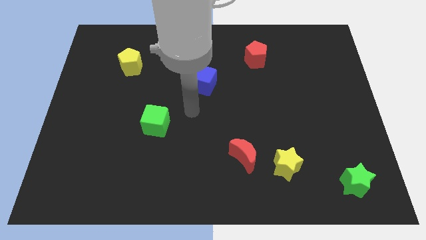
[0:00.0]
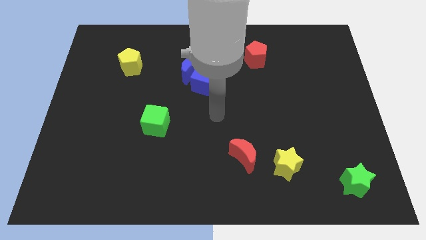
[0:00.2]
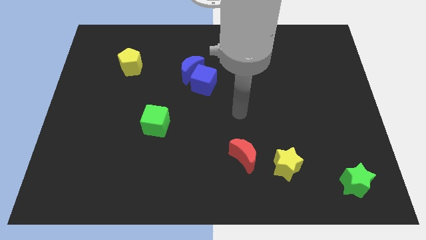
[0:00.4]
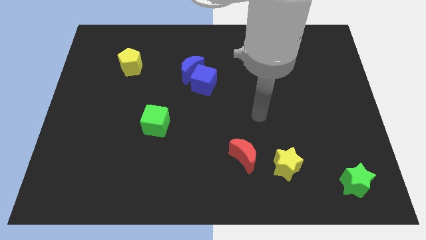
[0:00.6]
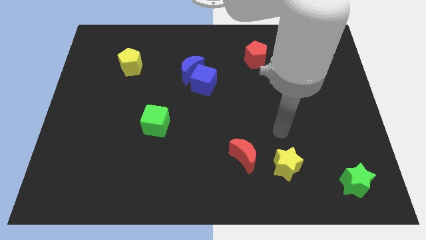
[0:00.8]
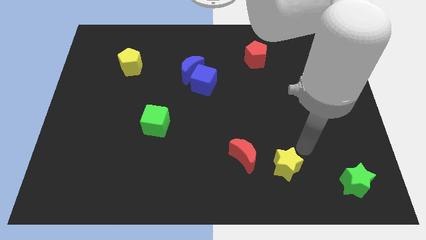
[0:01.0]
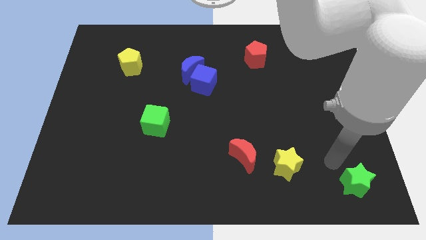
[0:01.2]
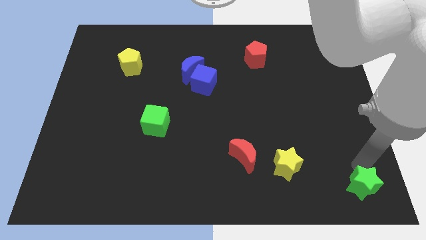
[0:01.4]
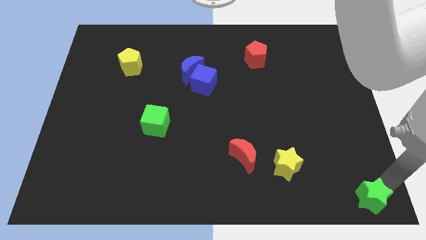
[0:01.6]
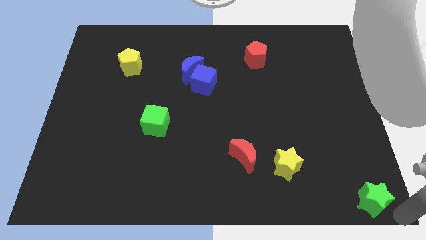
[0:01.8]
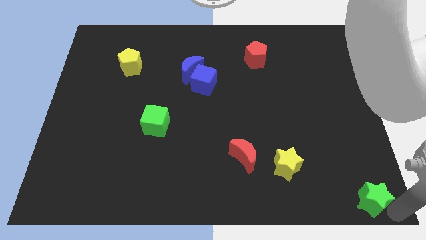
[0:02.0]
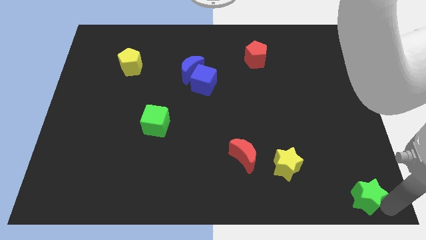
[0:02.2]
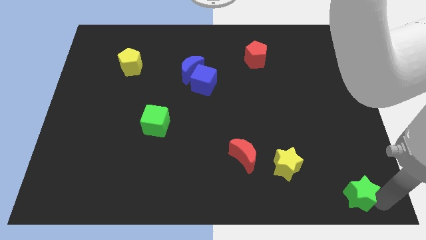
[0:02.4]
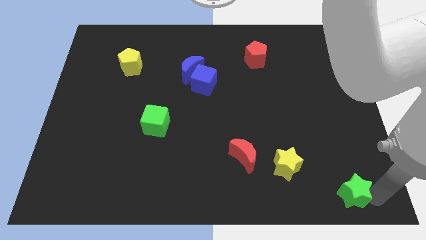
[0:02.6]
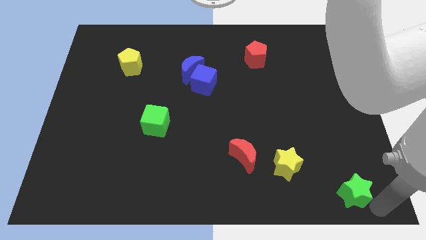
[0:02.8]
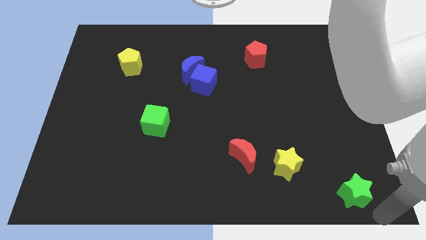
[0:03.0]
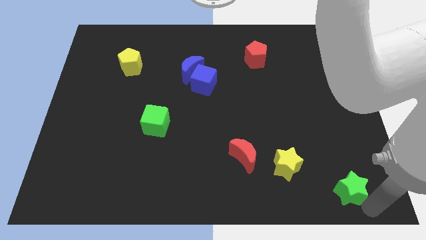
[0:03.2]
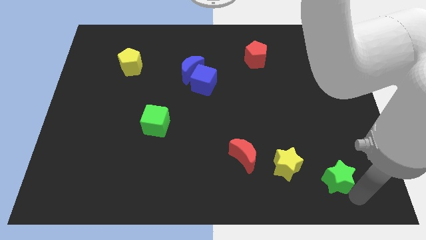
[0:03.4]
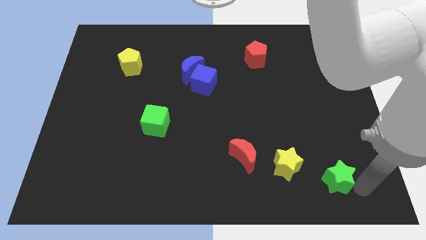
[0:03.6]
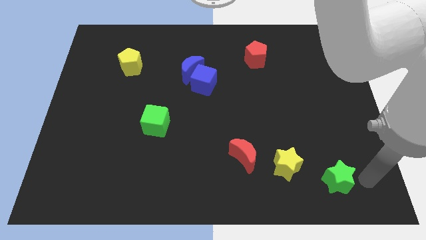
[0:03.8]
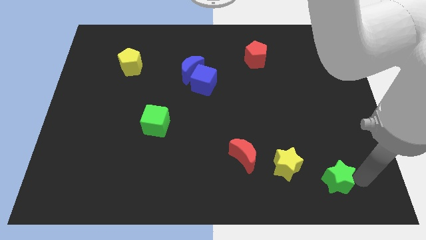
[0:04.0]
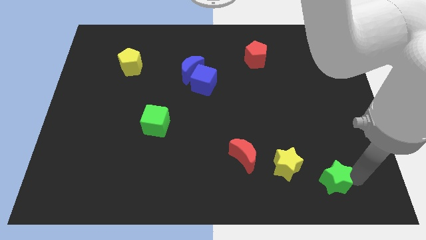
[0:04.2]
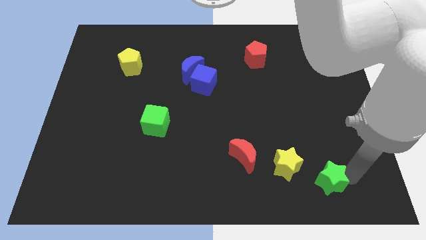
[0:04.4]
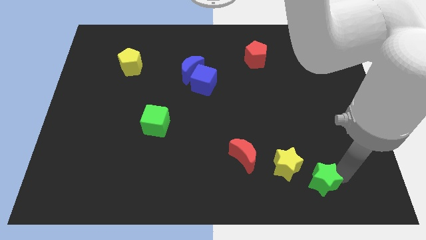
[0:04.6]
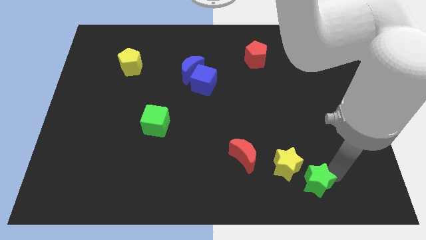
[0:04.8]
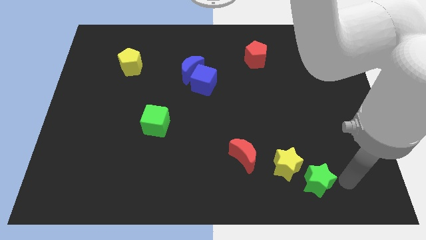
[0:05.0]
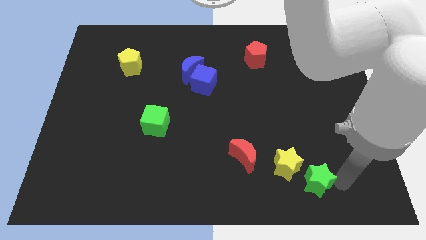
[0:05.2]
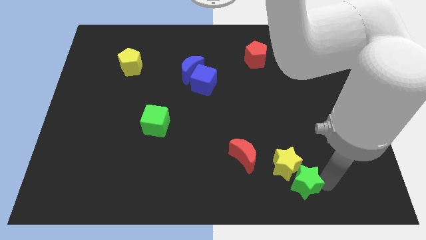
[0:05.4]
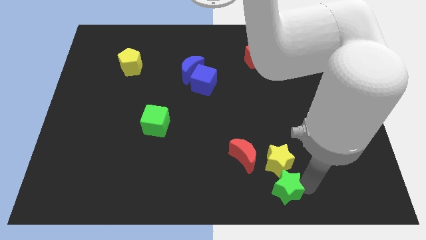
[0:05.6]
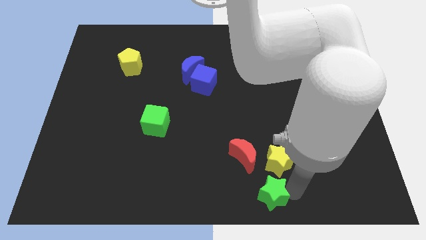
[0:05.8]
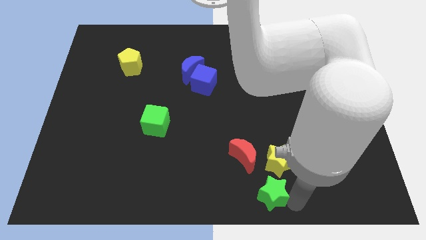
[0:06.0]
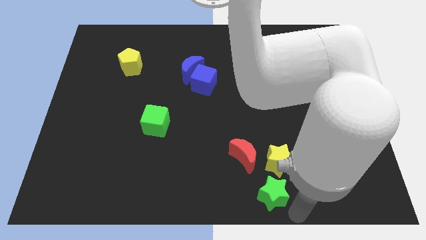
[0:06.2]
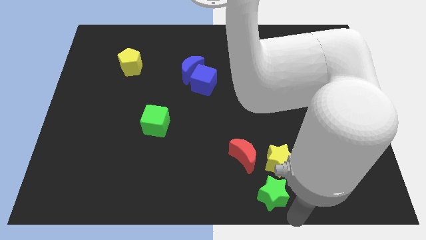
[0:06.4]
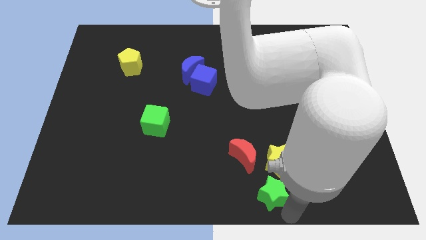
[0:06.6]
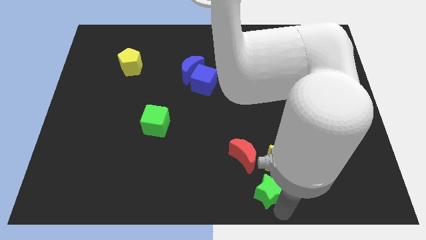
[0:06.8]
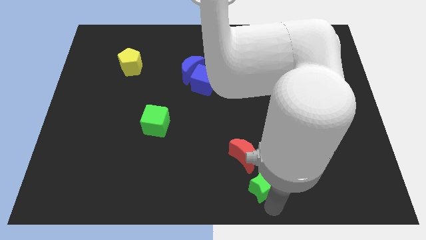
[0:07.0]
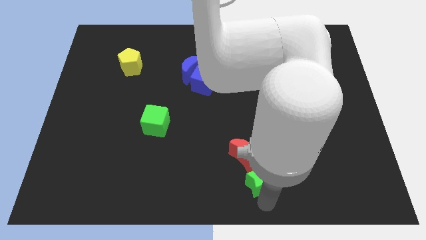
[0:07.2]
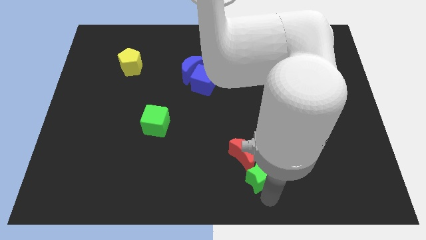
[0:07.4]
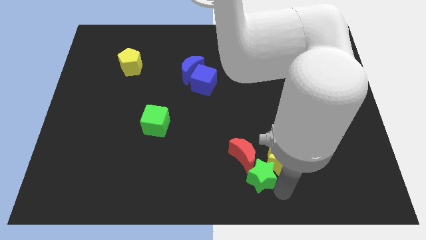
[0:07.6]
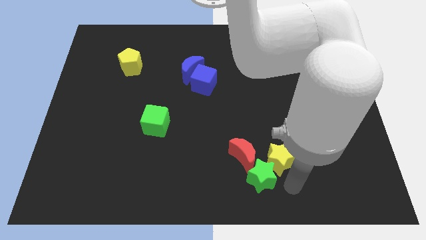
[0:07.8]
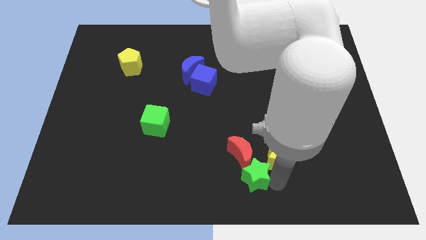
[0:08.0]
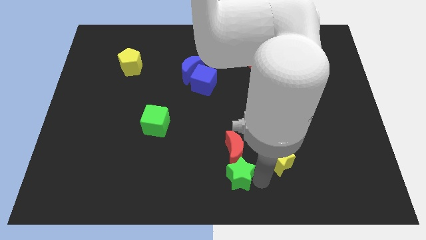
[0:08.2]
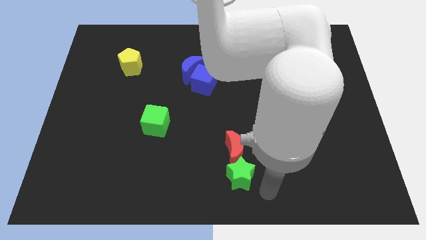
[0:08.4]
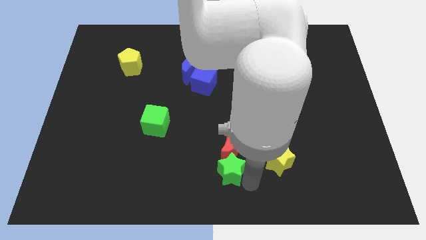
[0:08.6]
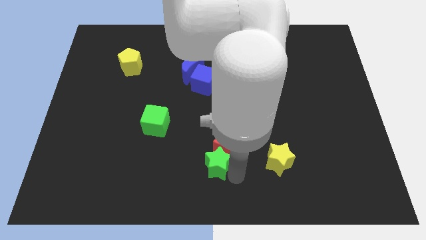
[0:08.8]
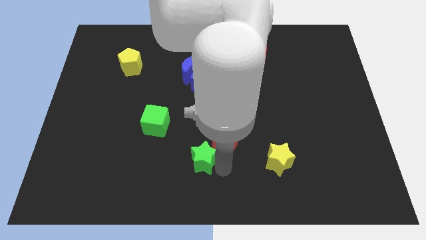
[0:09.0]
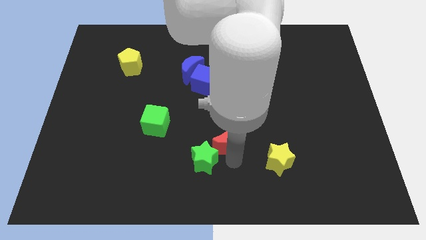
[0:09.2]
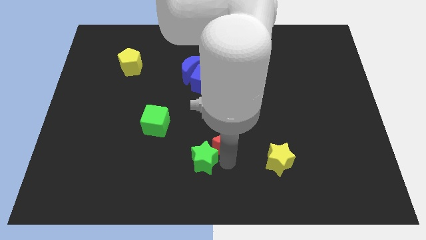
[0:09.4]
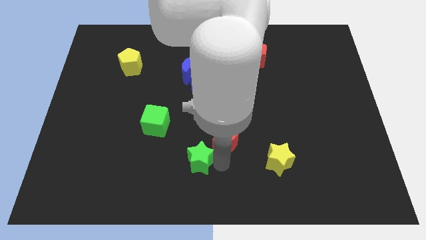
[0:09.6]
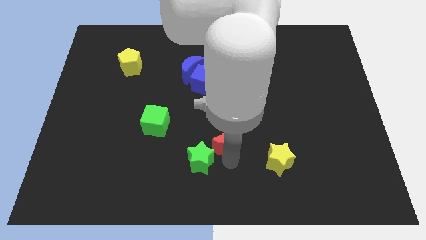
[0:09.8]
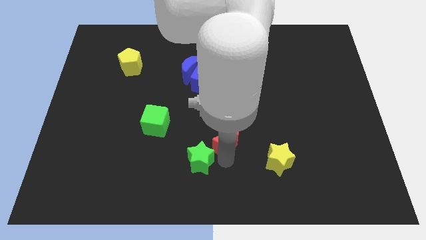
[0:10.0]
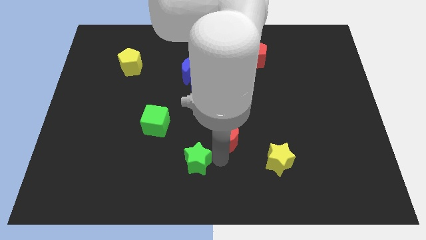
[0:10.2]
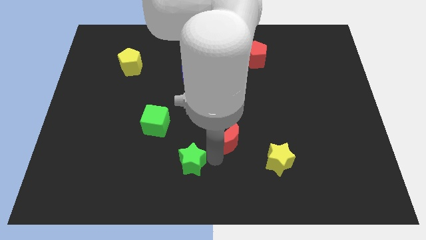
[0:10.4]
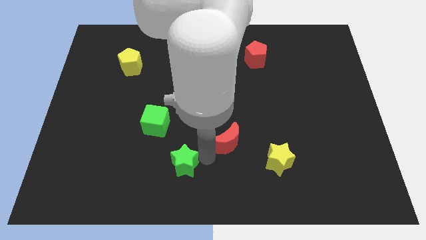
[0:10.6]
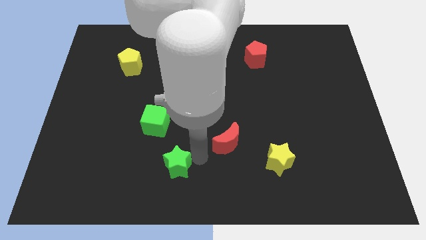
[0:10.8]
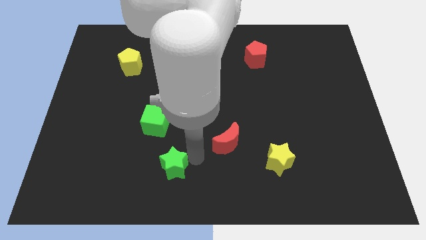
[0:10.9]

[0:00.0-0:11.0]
slide the green star to the bottom side of the green cube
